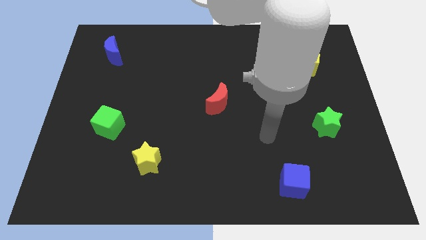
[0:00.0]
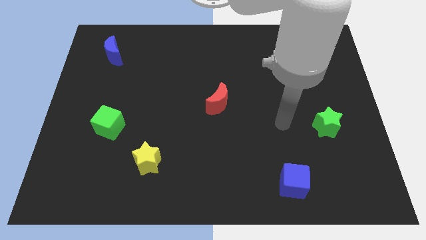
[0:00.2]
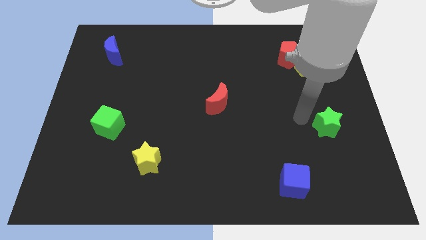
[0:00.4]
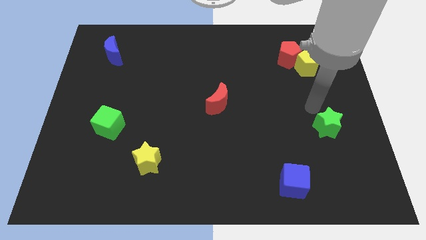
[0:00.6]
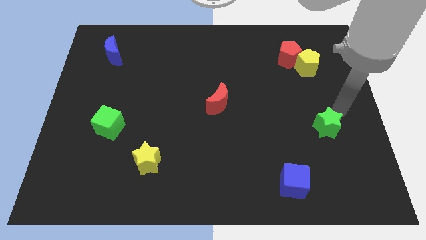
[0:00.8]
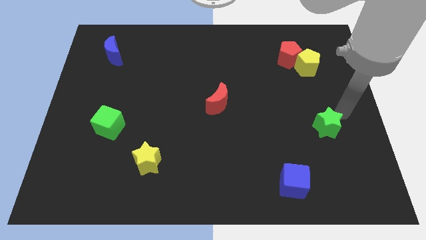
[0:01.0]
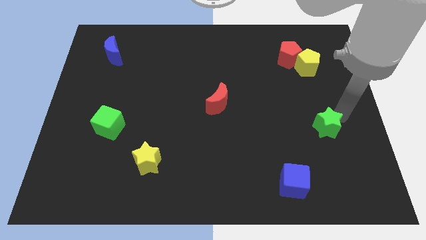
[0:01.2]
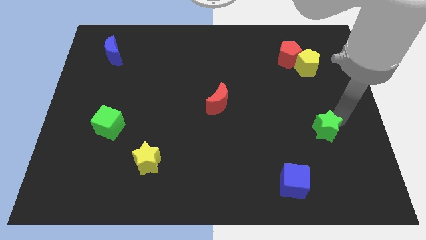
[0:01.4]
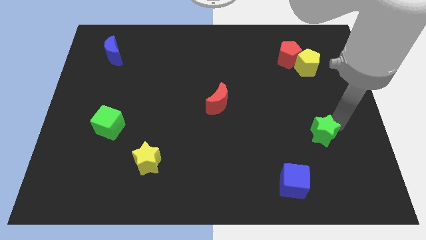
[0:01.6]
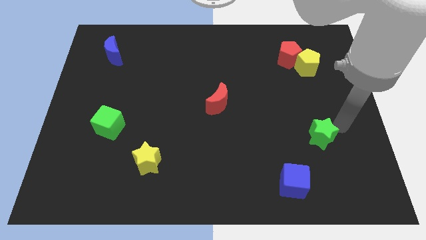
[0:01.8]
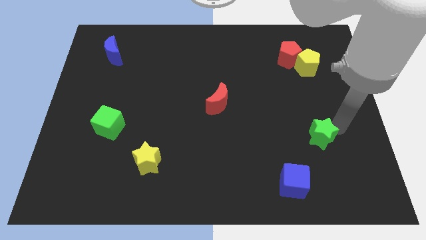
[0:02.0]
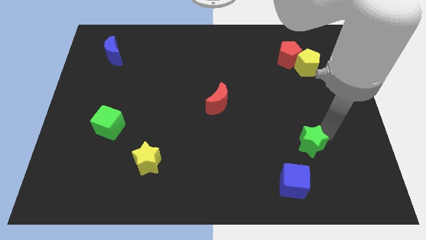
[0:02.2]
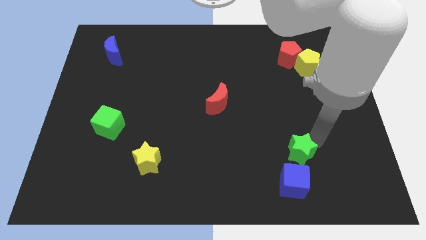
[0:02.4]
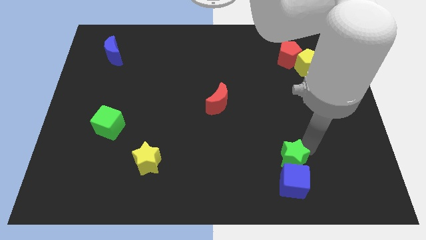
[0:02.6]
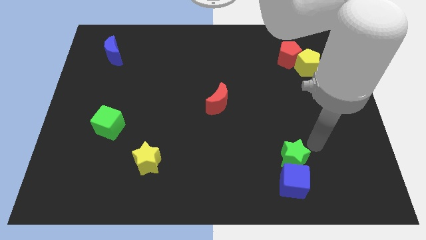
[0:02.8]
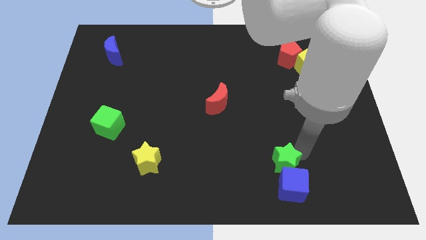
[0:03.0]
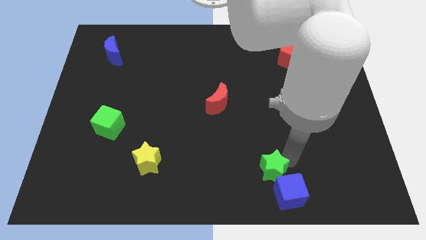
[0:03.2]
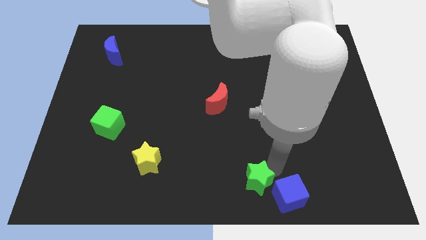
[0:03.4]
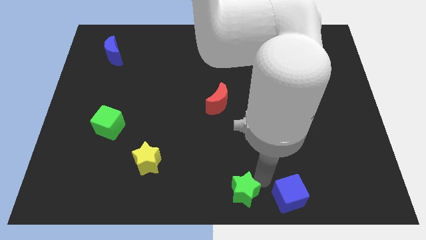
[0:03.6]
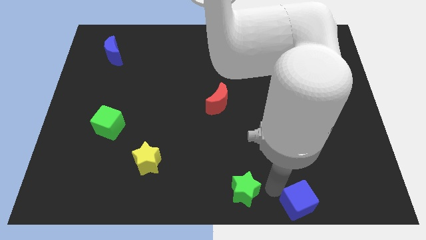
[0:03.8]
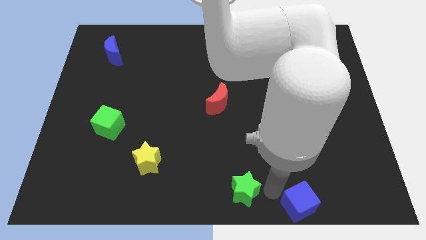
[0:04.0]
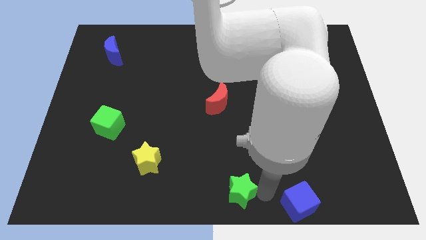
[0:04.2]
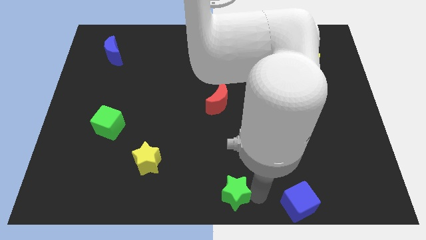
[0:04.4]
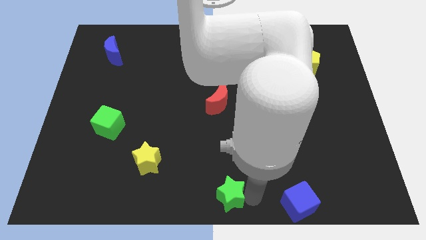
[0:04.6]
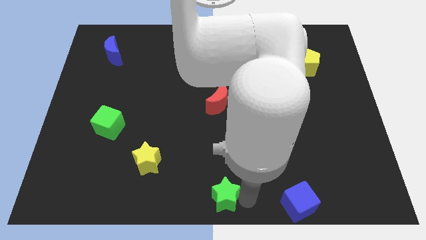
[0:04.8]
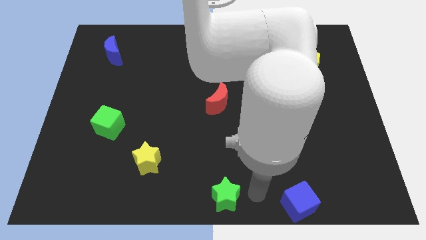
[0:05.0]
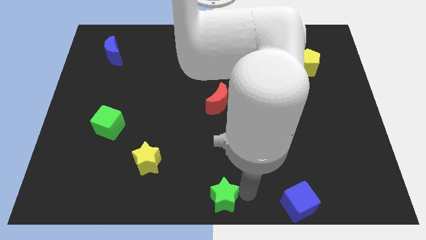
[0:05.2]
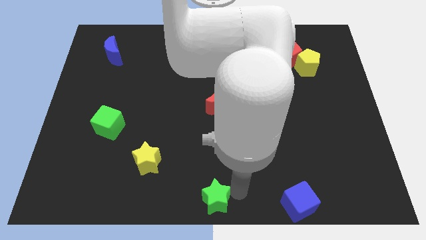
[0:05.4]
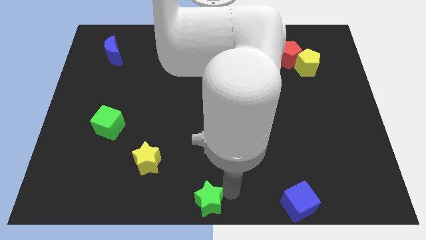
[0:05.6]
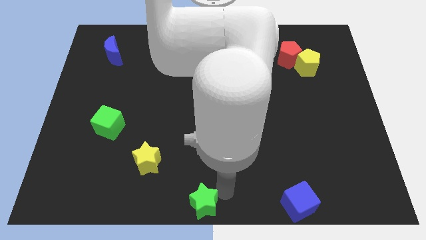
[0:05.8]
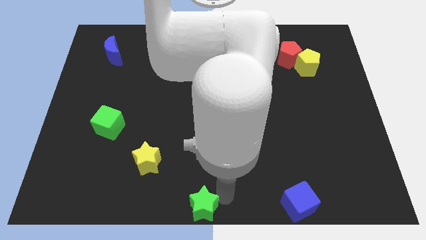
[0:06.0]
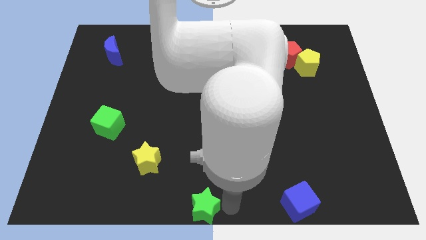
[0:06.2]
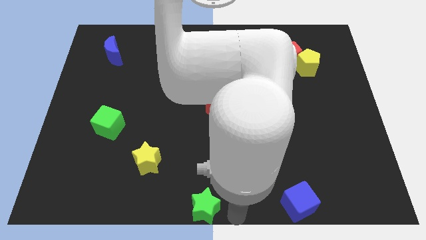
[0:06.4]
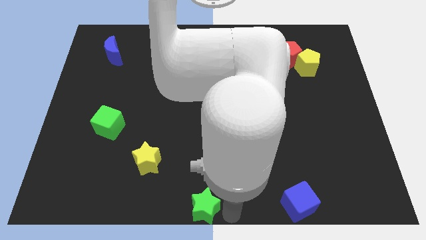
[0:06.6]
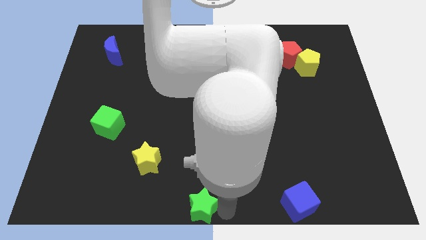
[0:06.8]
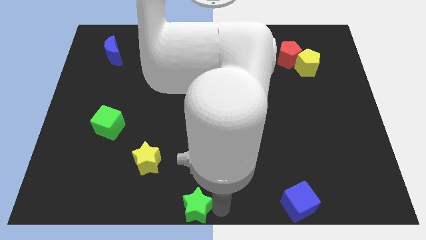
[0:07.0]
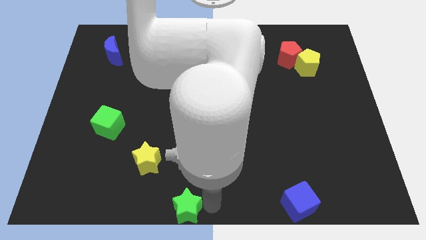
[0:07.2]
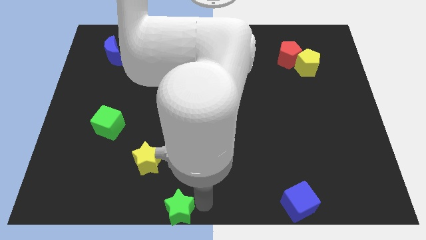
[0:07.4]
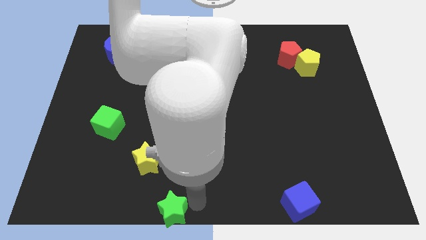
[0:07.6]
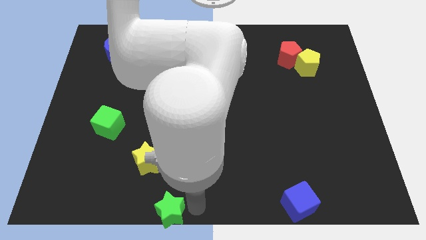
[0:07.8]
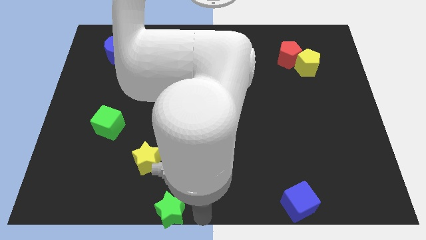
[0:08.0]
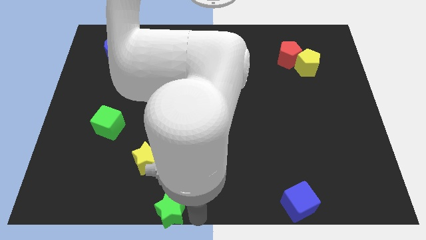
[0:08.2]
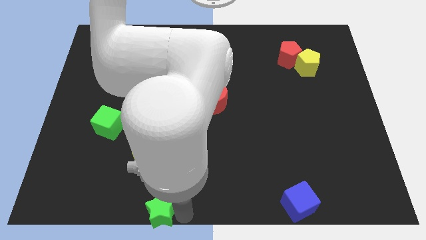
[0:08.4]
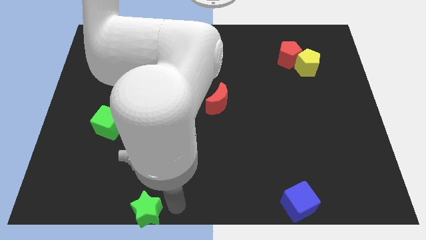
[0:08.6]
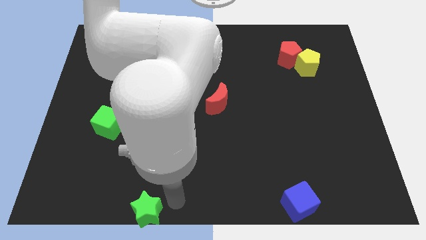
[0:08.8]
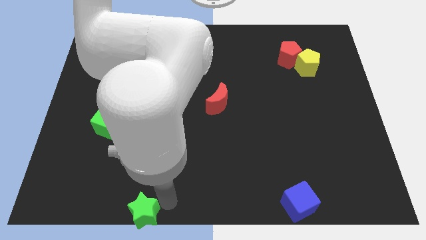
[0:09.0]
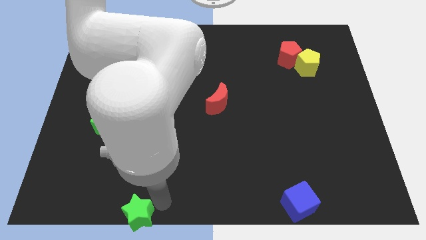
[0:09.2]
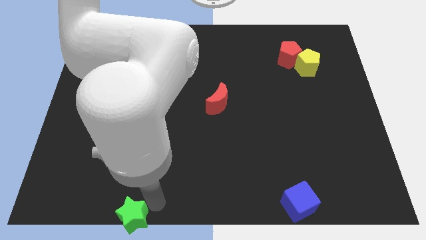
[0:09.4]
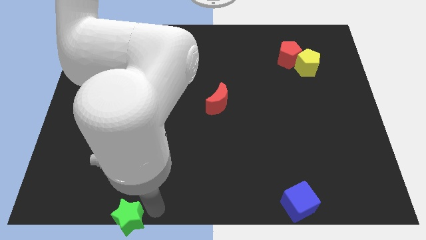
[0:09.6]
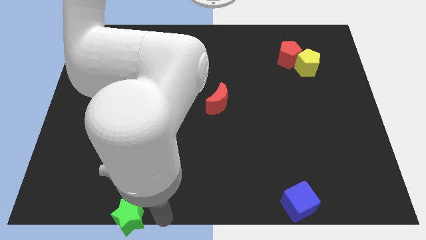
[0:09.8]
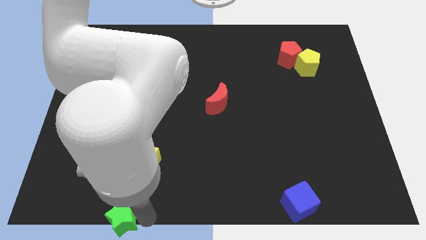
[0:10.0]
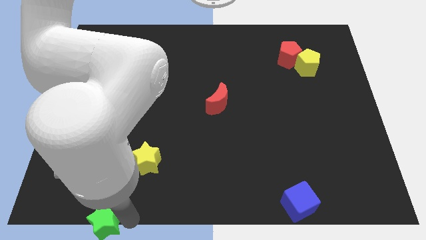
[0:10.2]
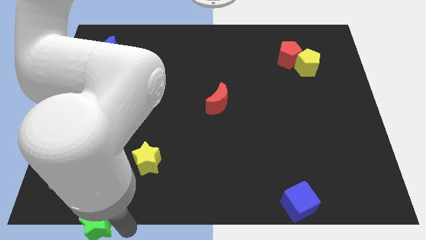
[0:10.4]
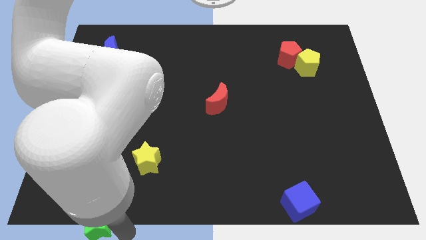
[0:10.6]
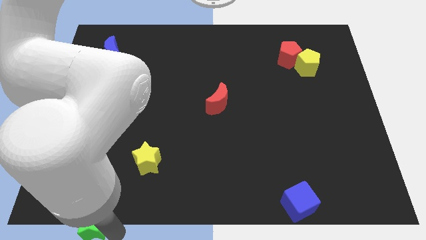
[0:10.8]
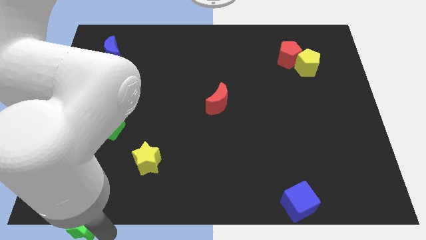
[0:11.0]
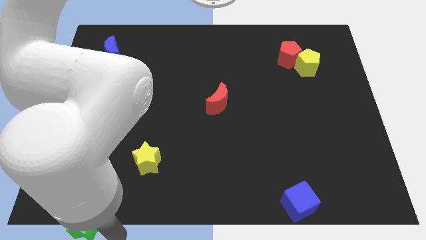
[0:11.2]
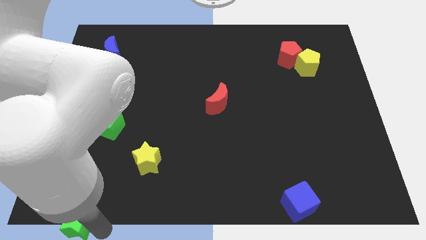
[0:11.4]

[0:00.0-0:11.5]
slide the green star to the bottom left corner
